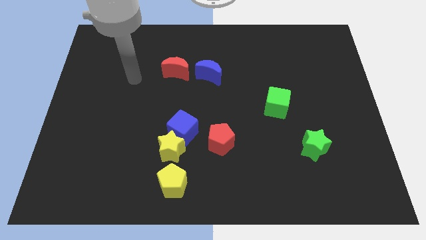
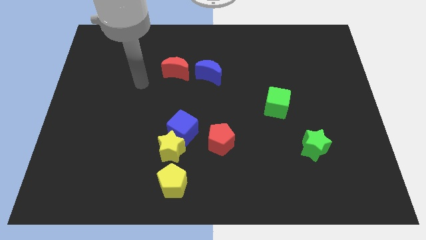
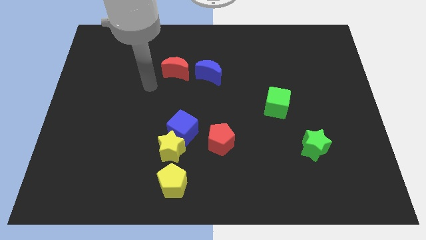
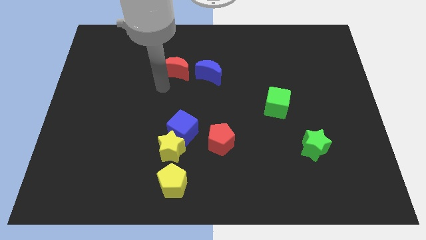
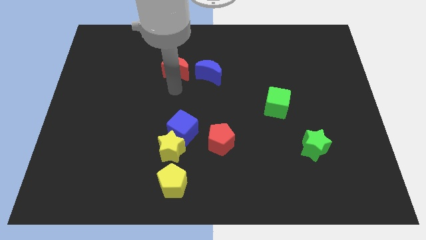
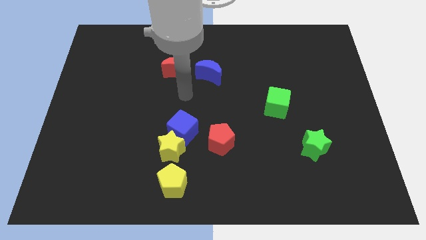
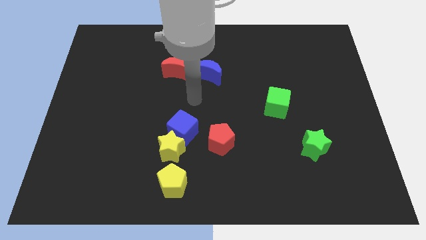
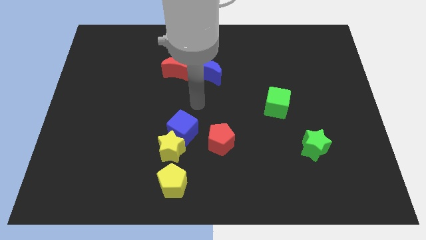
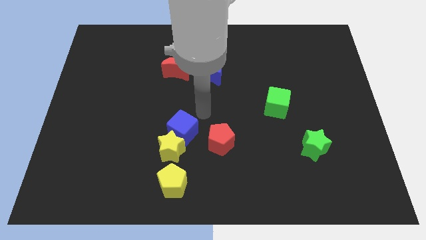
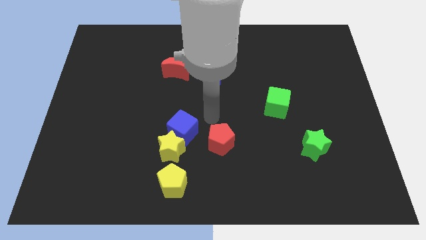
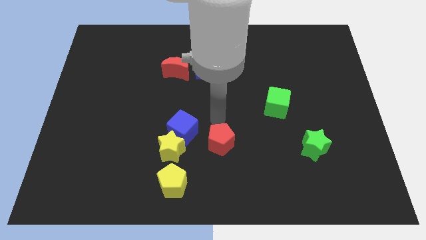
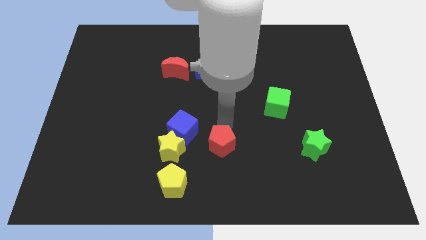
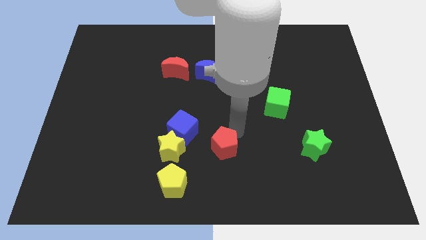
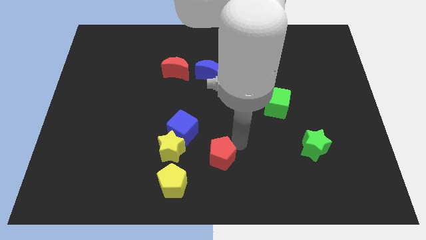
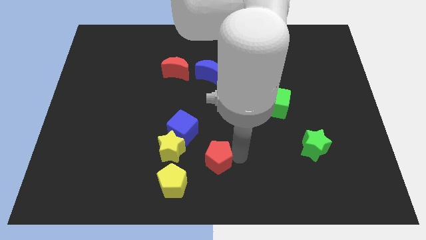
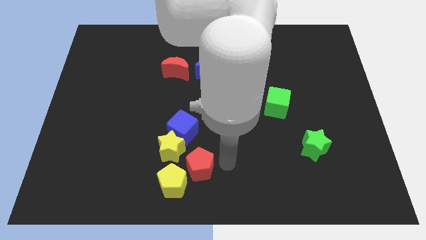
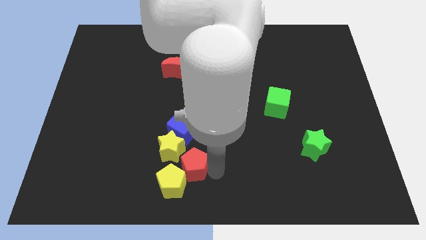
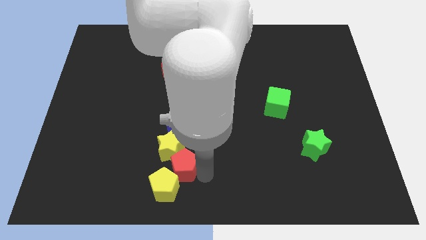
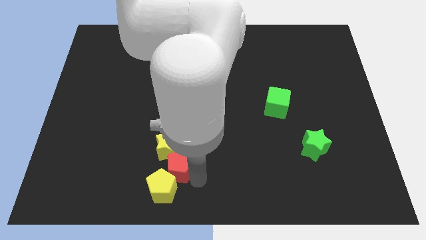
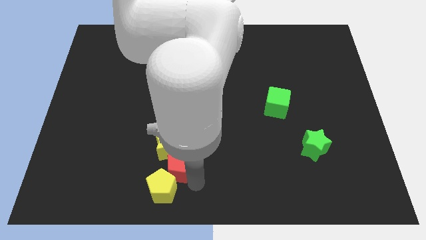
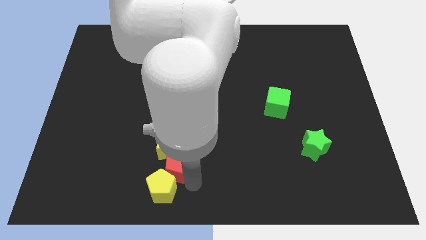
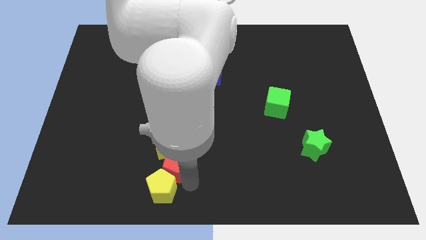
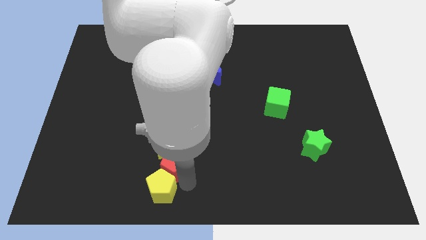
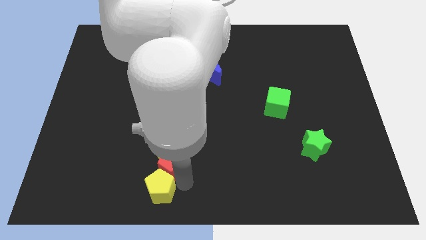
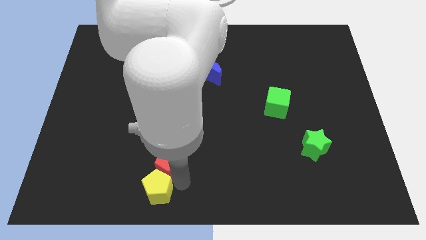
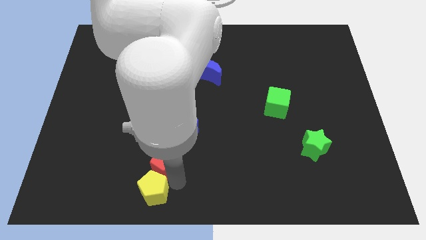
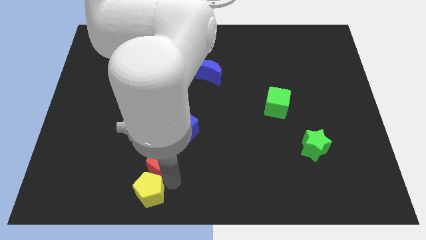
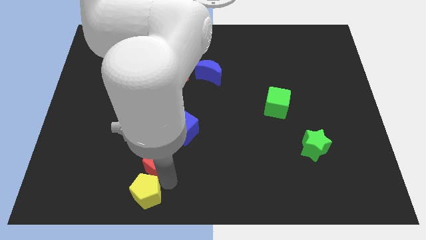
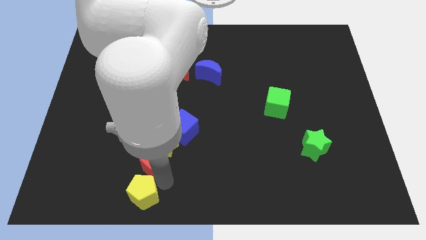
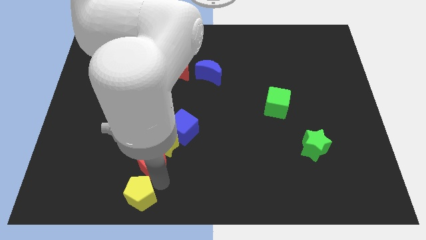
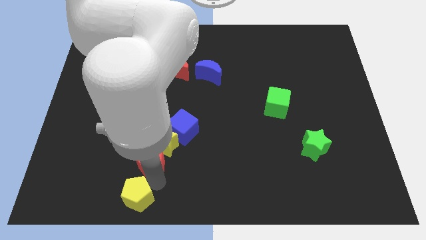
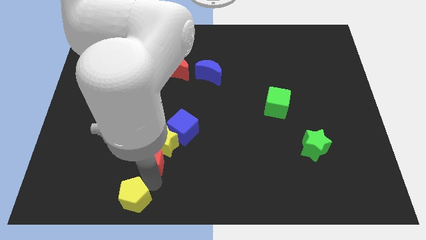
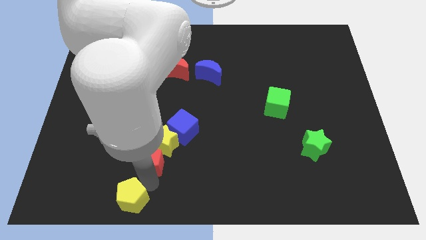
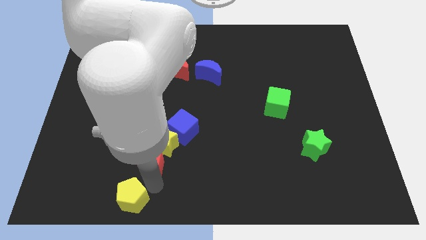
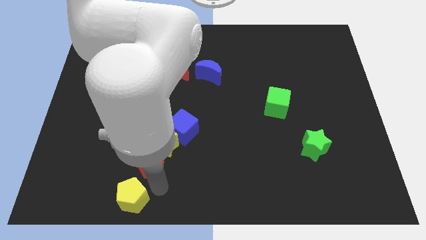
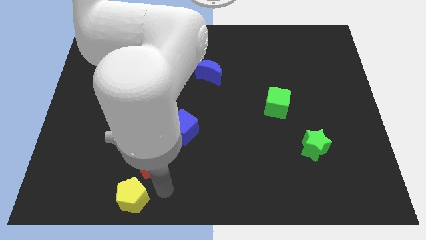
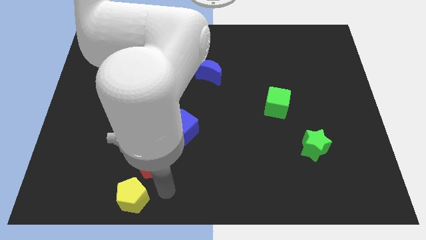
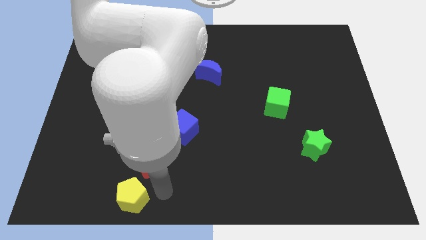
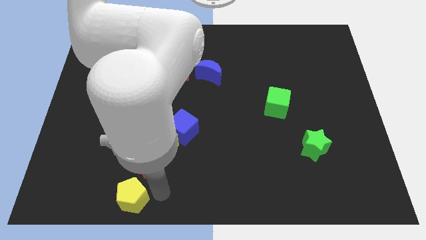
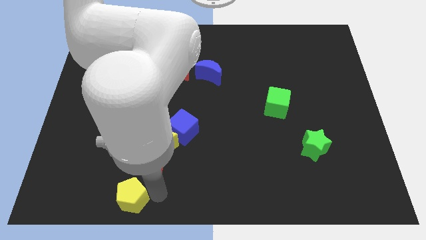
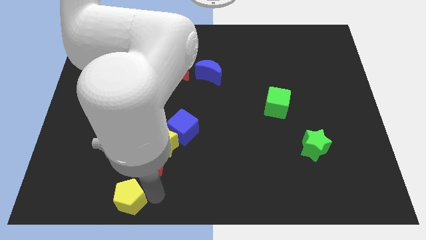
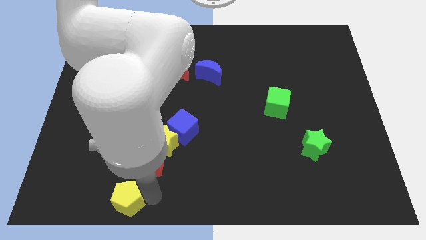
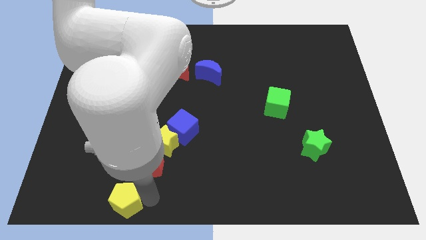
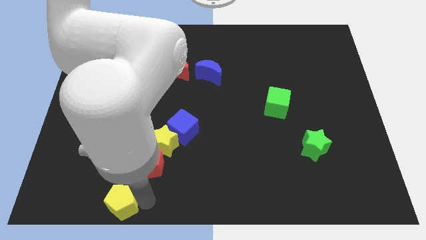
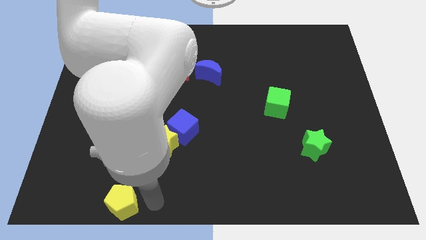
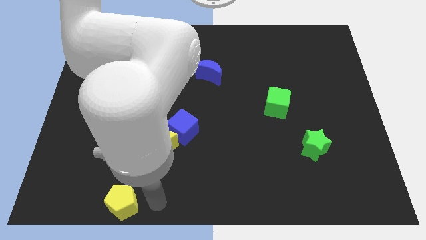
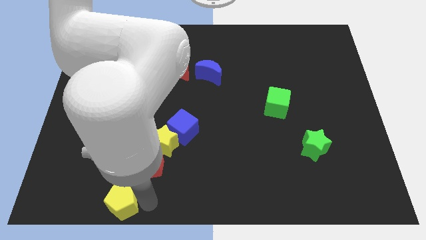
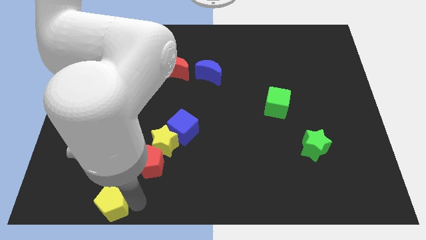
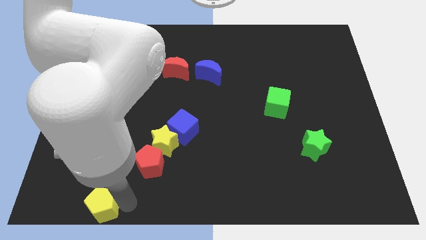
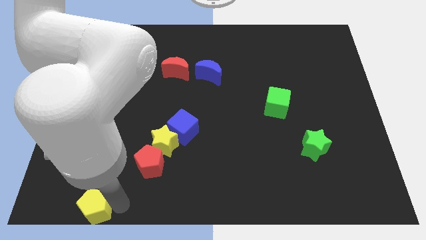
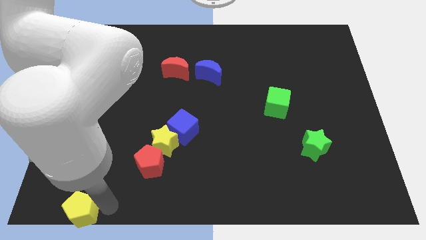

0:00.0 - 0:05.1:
move the yellow pentagon to the bottom left of the board

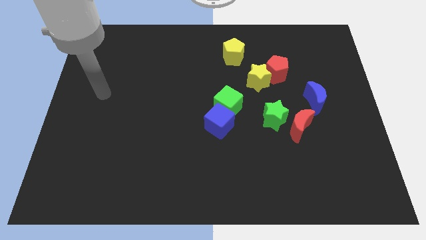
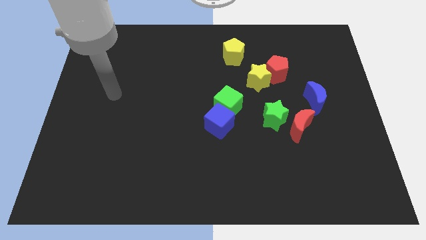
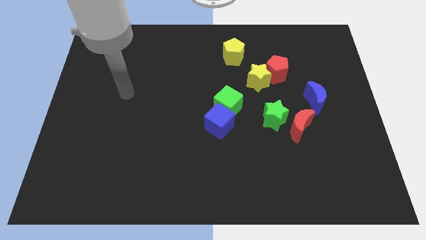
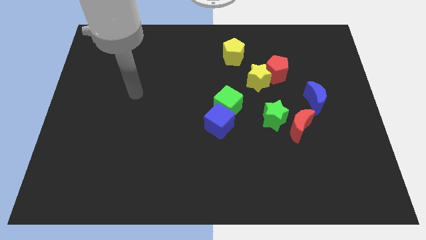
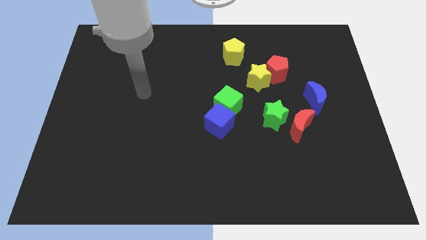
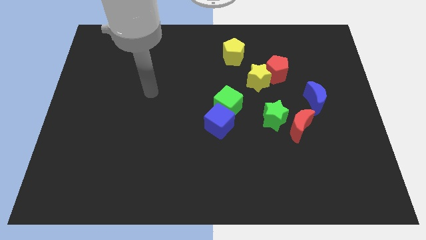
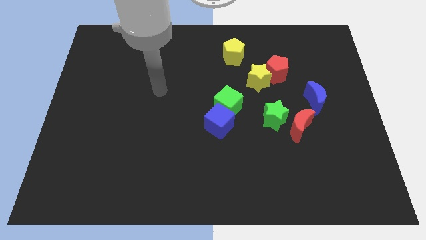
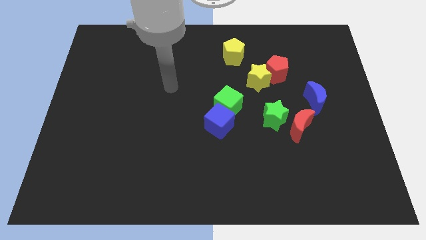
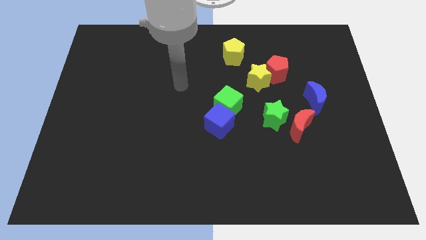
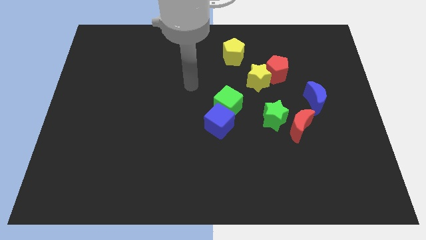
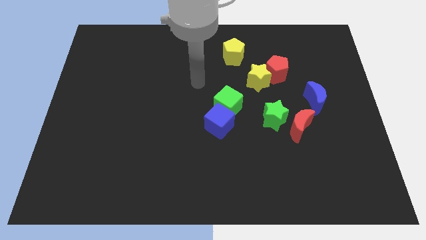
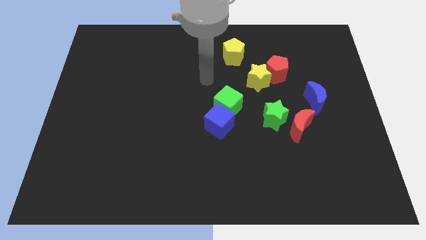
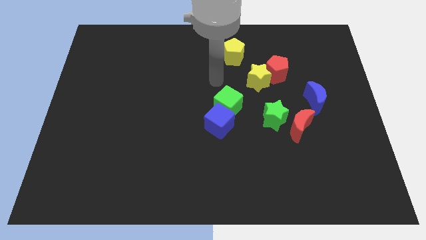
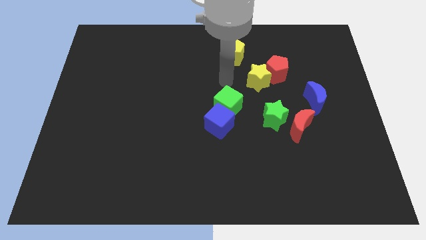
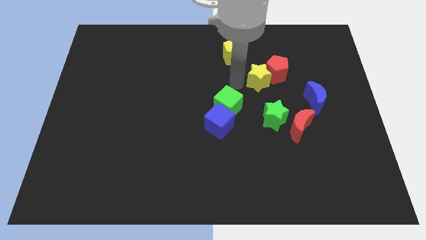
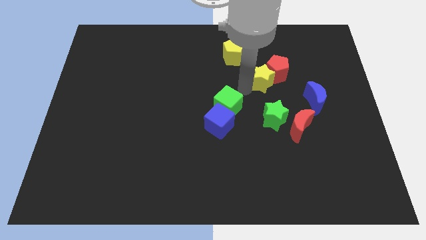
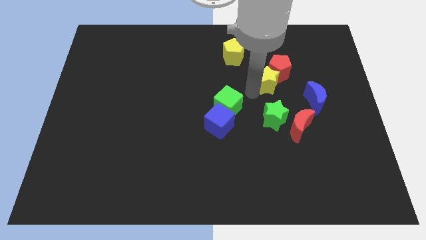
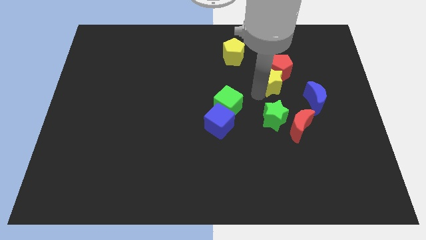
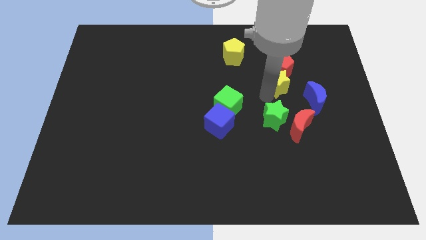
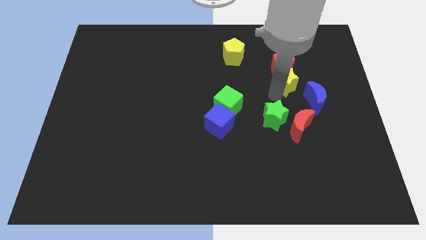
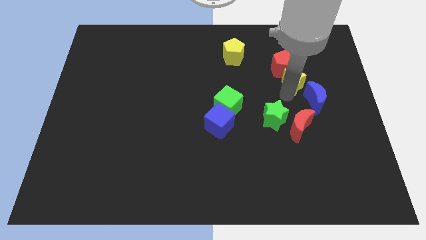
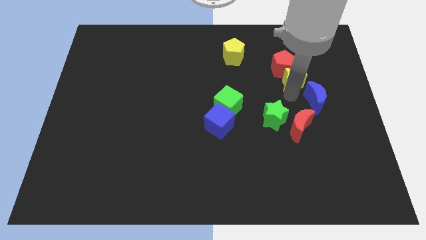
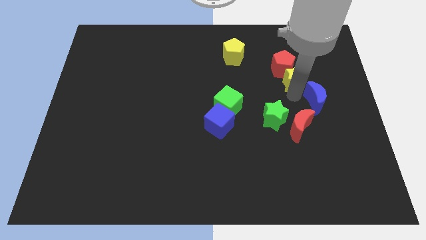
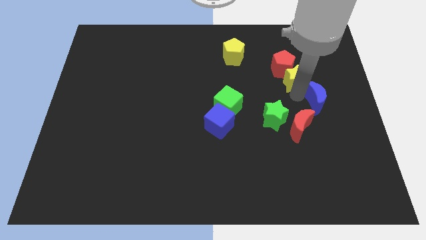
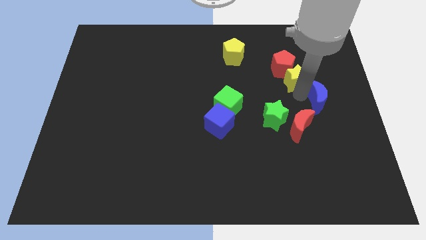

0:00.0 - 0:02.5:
move the blue moon to the right side of the board
